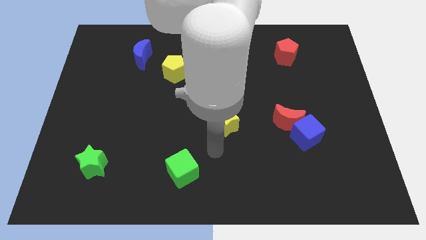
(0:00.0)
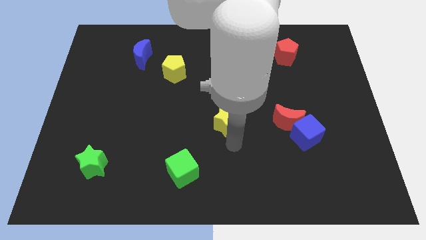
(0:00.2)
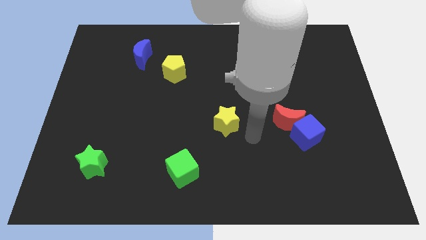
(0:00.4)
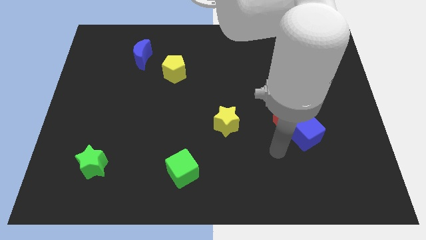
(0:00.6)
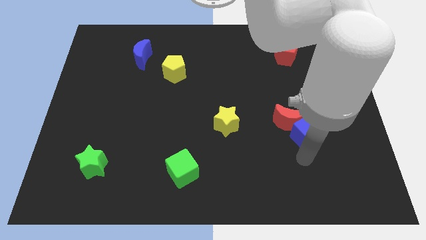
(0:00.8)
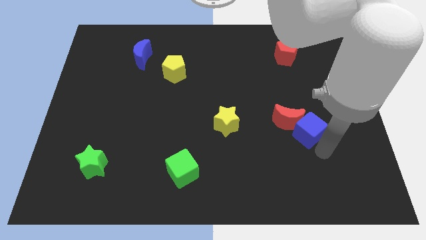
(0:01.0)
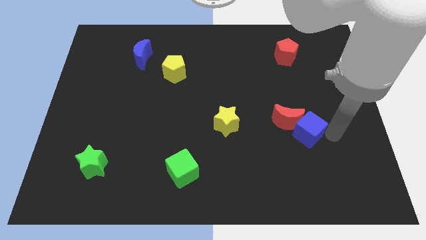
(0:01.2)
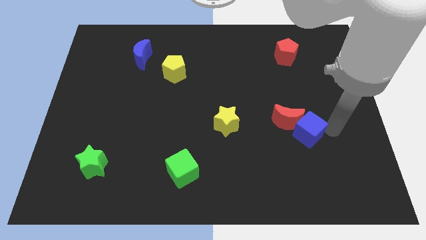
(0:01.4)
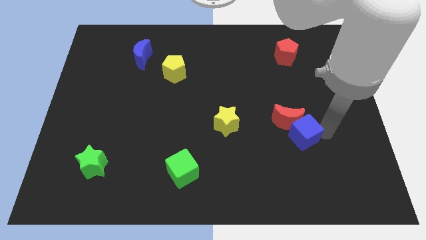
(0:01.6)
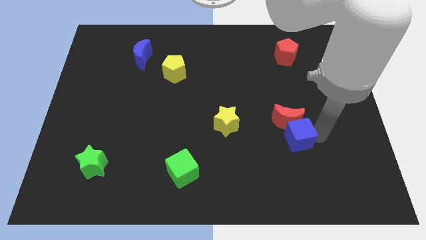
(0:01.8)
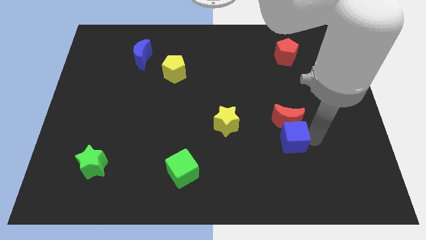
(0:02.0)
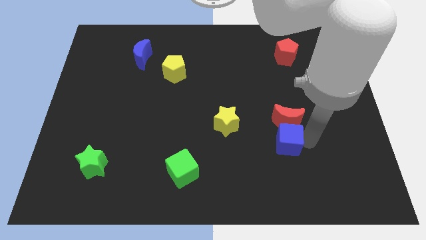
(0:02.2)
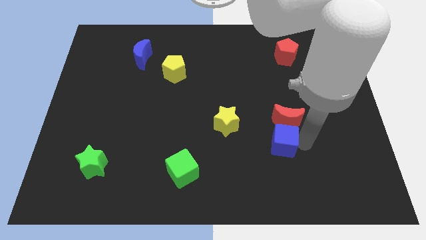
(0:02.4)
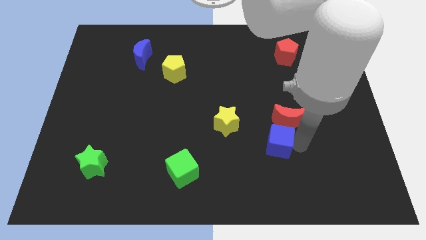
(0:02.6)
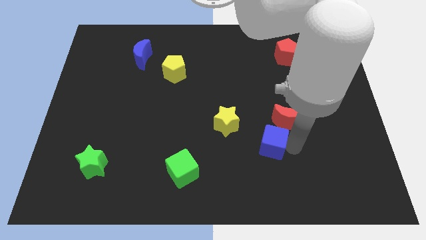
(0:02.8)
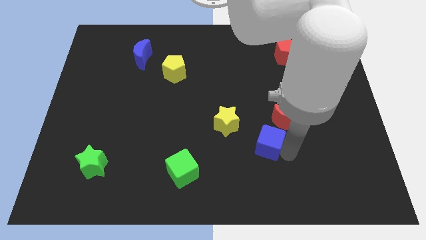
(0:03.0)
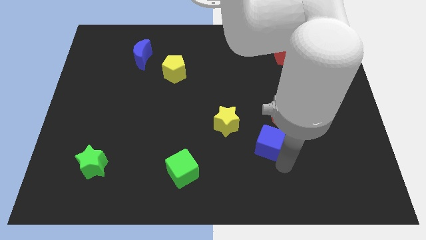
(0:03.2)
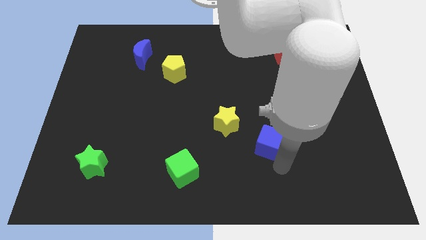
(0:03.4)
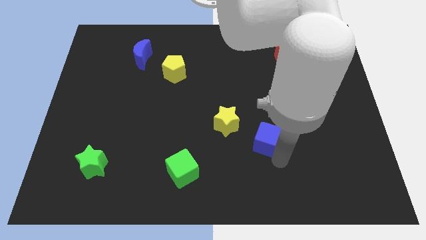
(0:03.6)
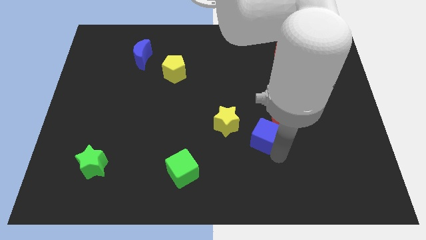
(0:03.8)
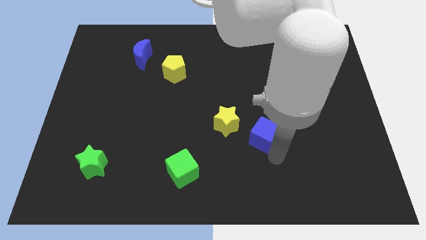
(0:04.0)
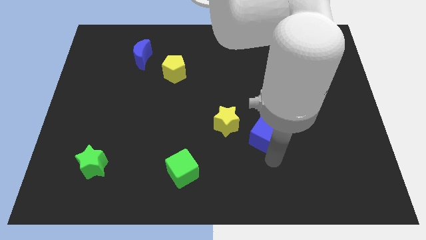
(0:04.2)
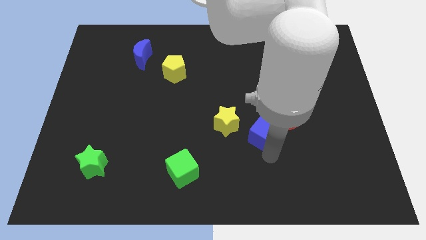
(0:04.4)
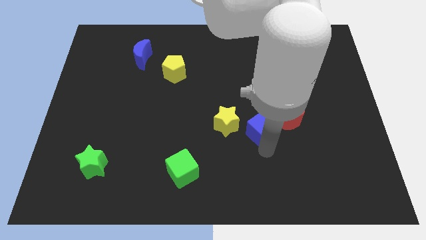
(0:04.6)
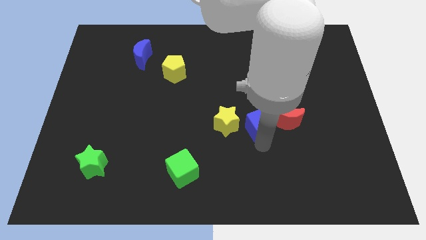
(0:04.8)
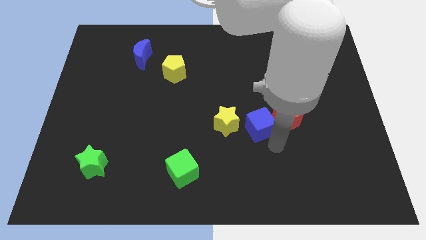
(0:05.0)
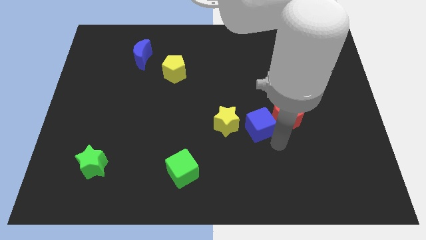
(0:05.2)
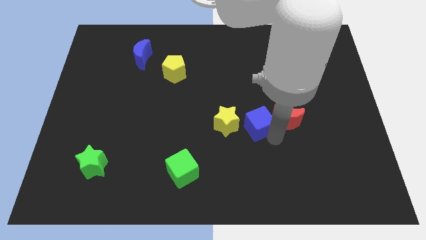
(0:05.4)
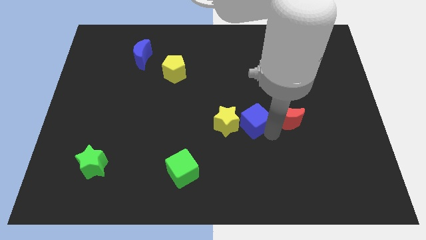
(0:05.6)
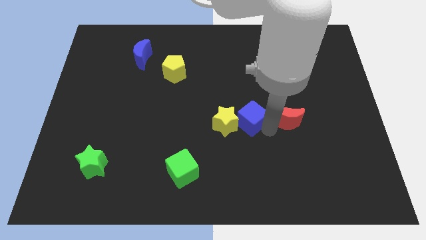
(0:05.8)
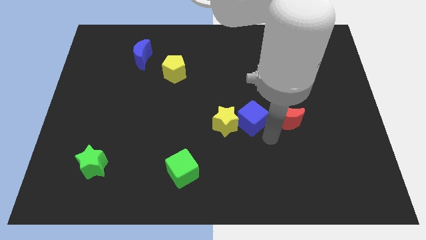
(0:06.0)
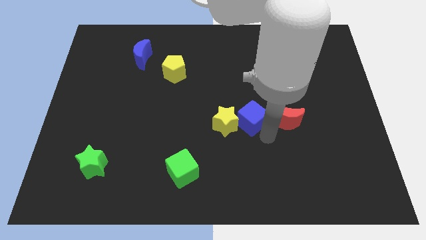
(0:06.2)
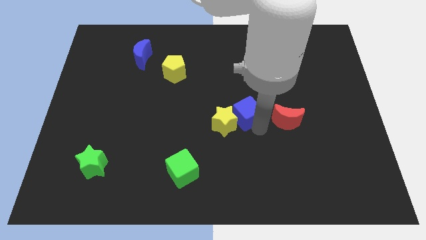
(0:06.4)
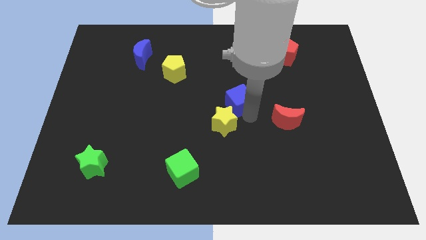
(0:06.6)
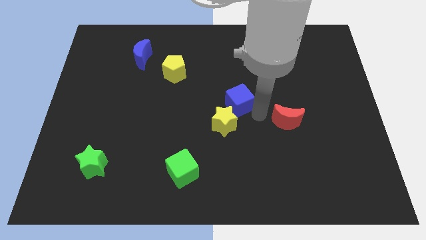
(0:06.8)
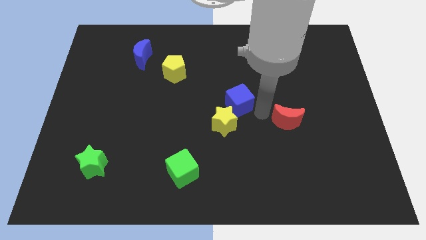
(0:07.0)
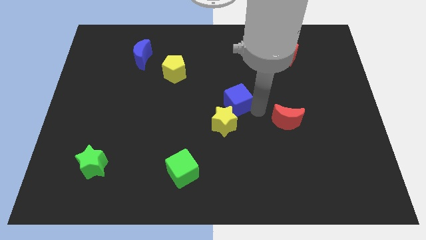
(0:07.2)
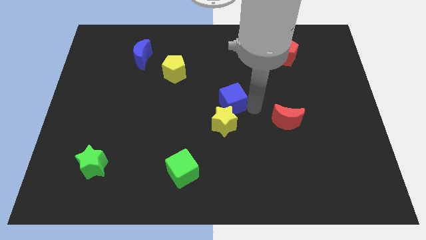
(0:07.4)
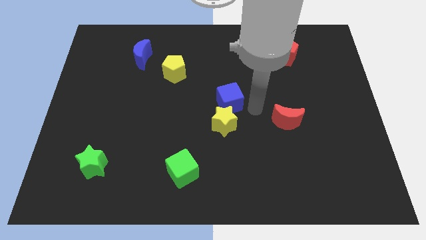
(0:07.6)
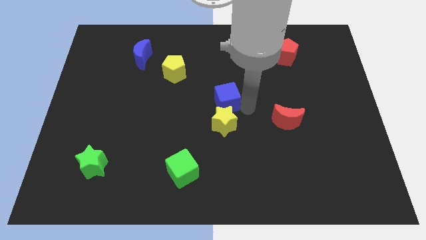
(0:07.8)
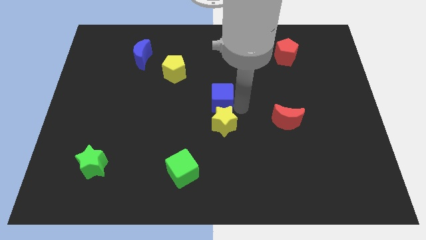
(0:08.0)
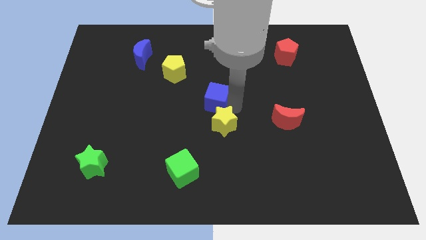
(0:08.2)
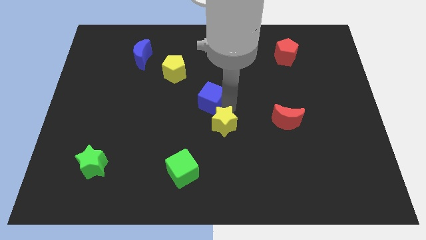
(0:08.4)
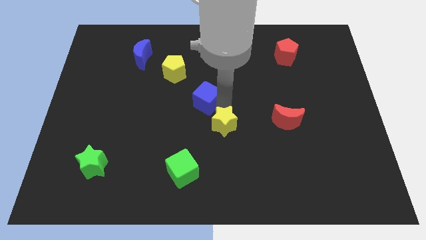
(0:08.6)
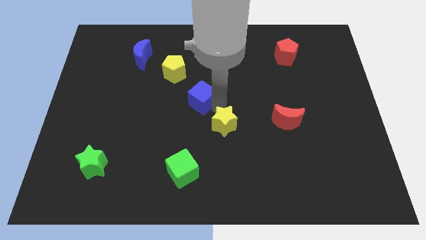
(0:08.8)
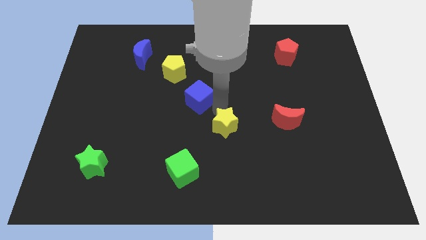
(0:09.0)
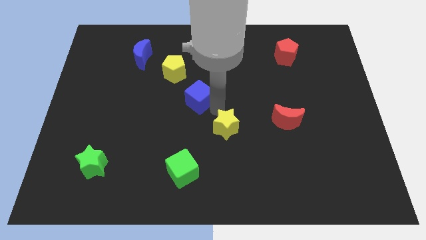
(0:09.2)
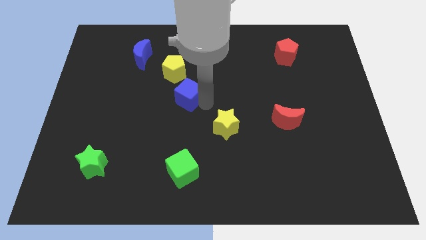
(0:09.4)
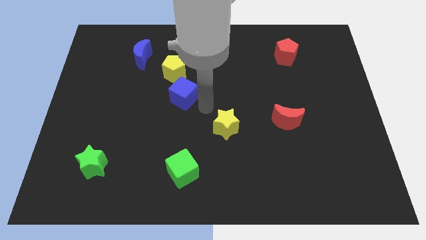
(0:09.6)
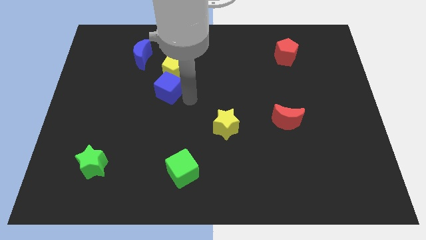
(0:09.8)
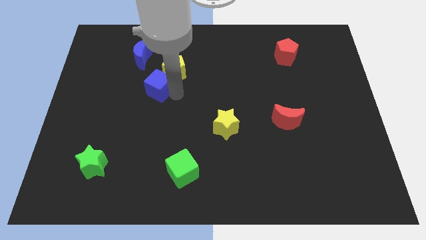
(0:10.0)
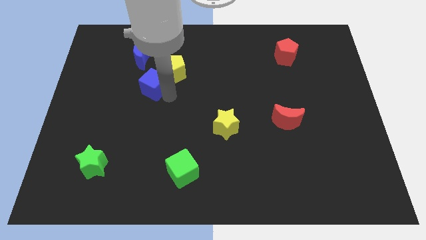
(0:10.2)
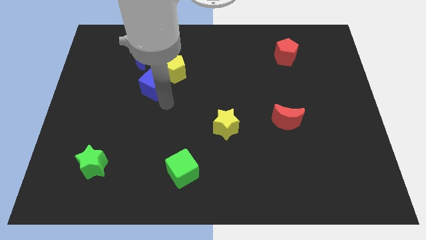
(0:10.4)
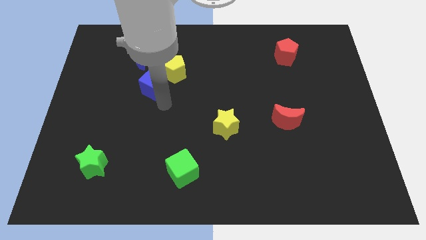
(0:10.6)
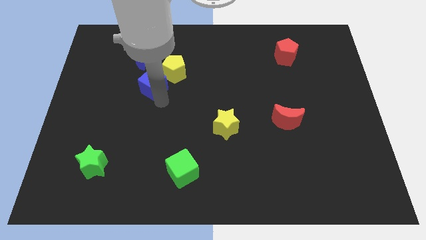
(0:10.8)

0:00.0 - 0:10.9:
slide the blue cube left of the yellow pentagon

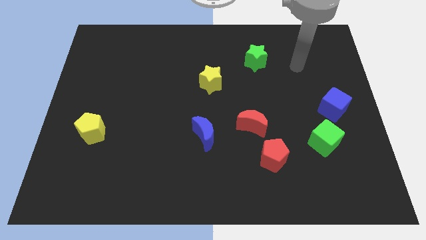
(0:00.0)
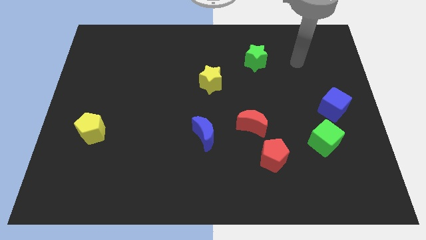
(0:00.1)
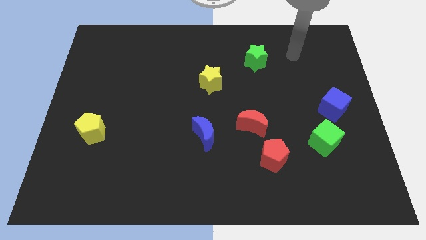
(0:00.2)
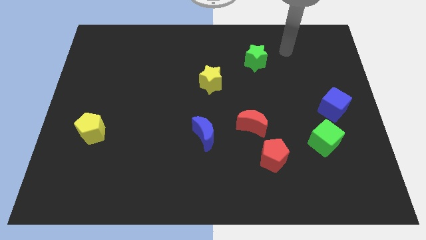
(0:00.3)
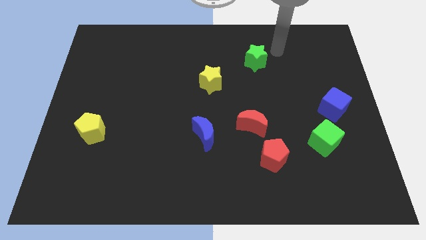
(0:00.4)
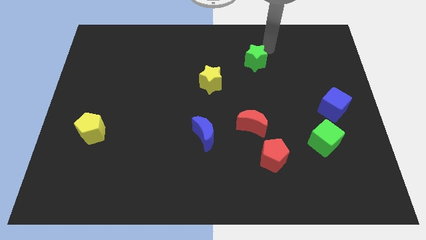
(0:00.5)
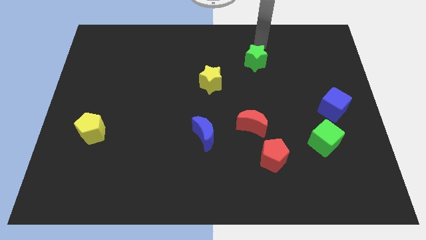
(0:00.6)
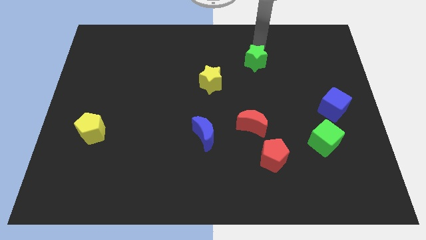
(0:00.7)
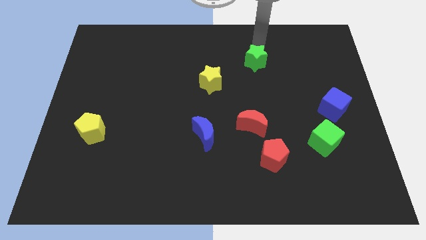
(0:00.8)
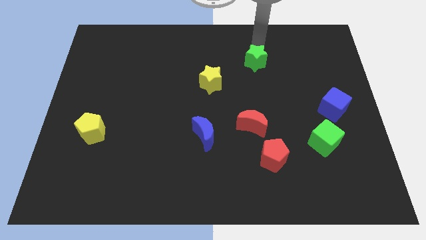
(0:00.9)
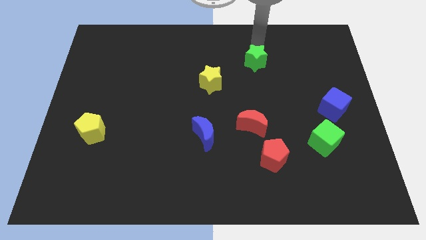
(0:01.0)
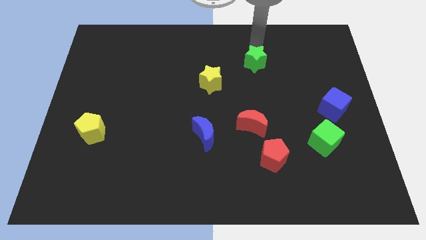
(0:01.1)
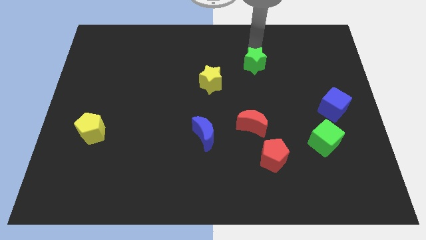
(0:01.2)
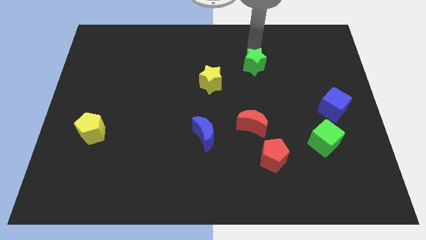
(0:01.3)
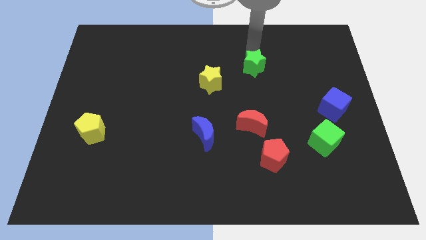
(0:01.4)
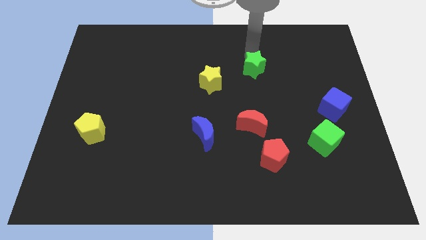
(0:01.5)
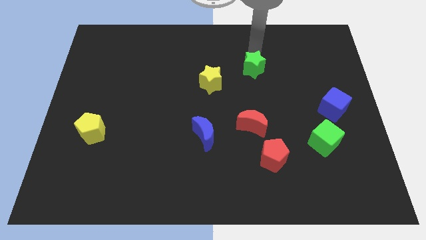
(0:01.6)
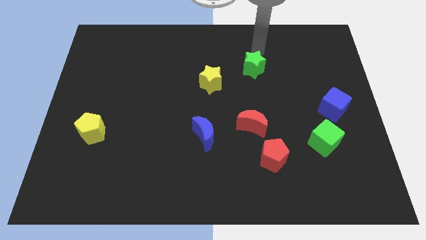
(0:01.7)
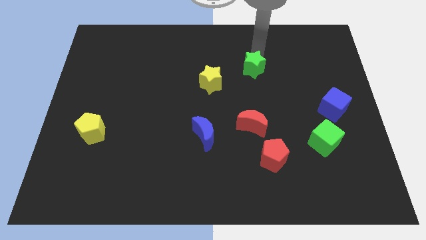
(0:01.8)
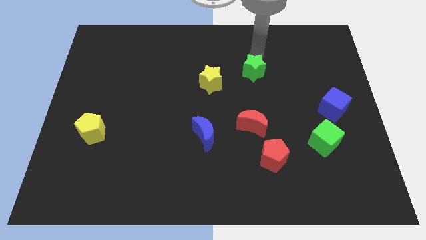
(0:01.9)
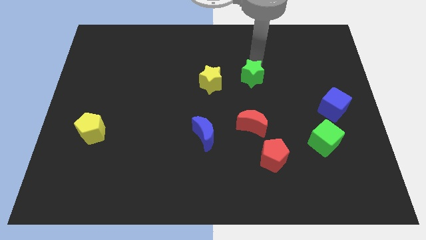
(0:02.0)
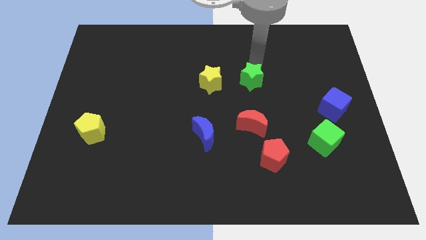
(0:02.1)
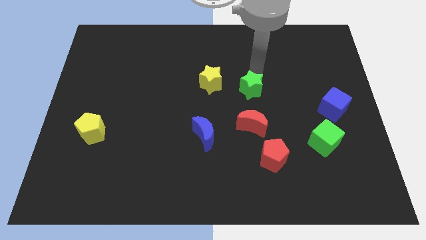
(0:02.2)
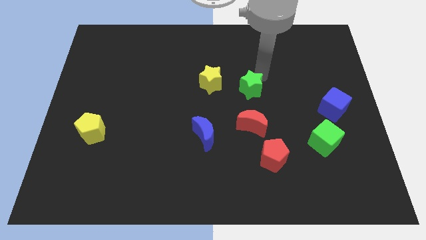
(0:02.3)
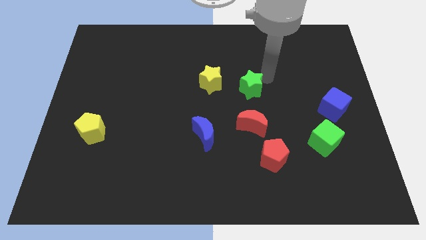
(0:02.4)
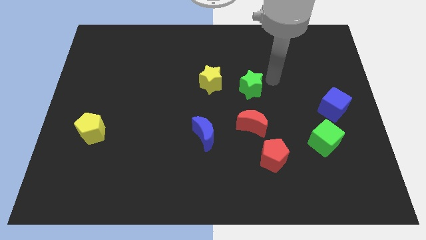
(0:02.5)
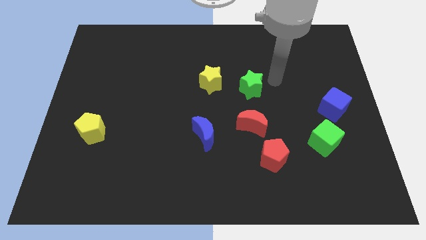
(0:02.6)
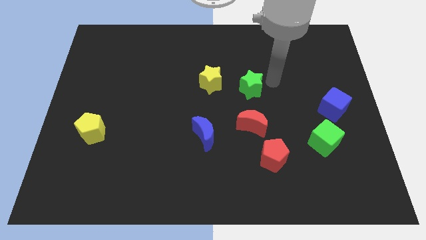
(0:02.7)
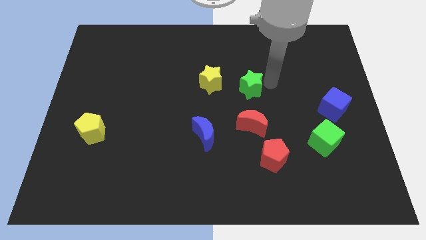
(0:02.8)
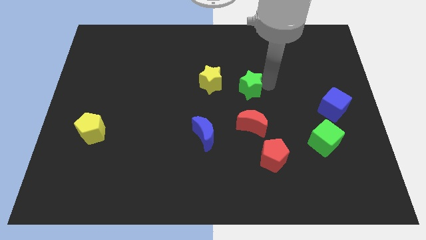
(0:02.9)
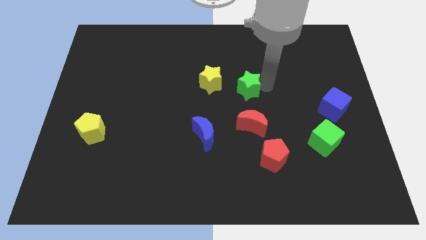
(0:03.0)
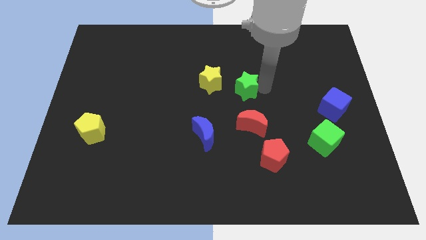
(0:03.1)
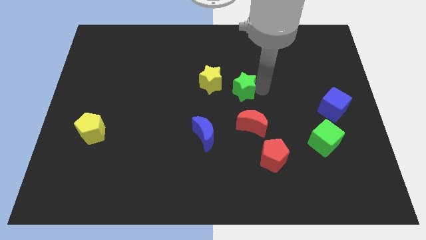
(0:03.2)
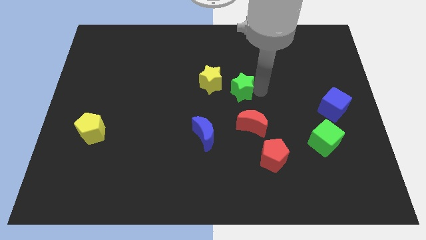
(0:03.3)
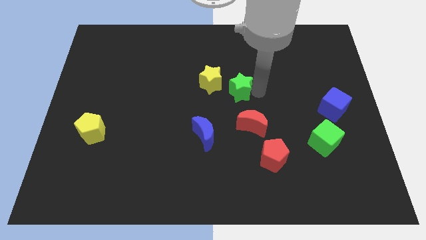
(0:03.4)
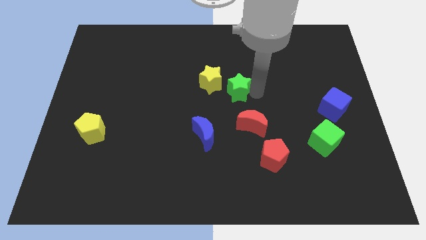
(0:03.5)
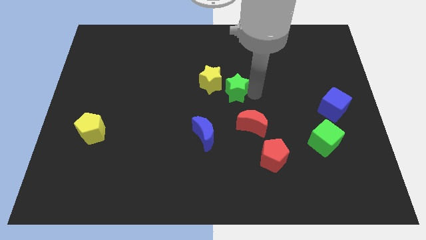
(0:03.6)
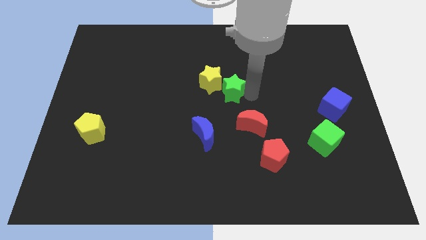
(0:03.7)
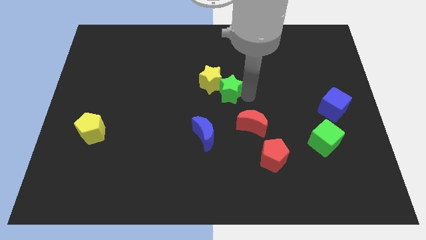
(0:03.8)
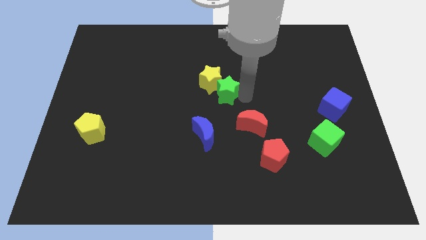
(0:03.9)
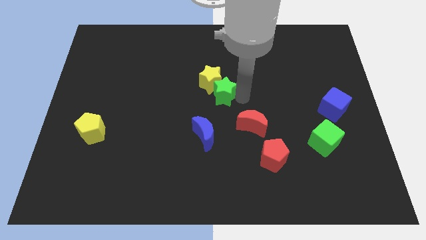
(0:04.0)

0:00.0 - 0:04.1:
slide the green star to the top of the blue moon
